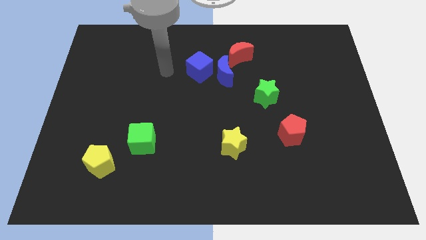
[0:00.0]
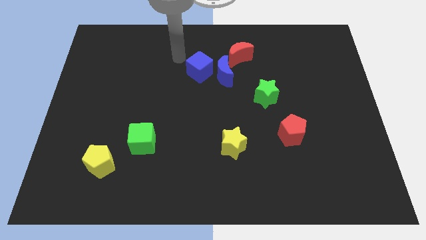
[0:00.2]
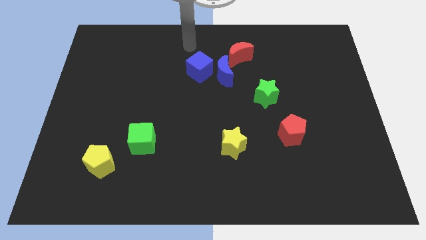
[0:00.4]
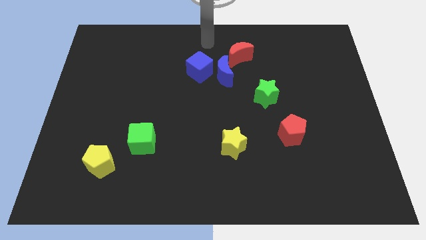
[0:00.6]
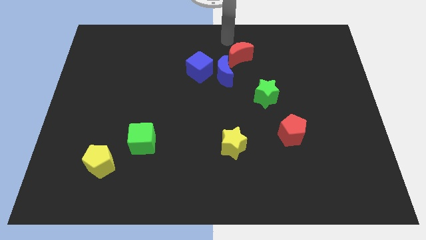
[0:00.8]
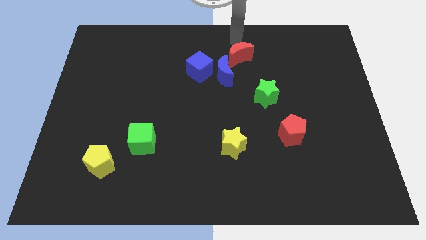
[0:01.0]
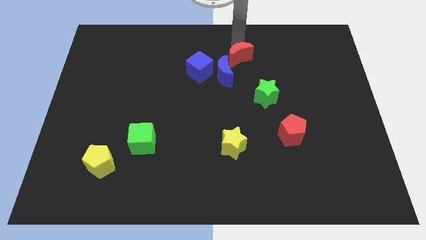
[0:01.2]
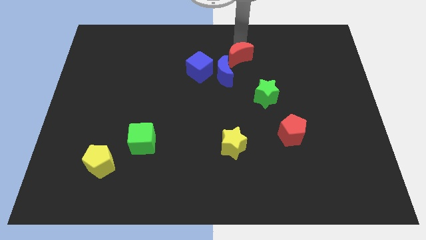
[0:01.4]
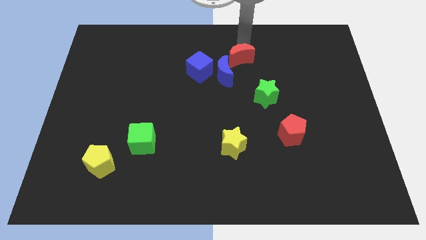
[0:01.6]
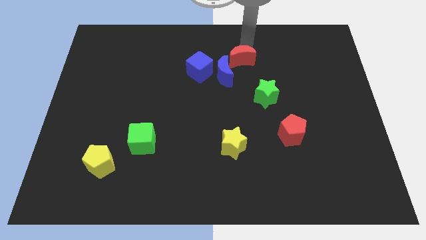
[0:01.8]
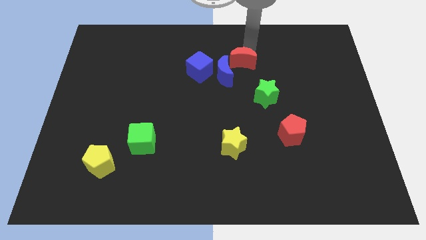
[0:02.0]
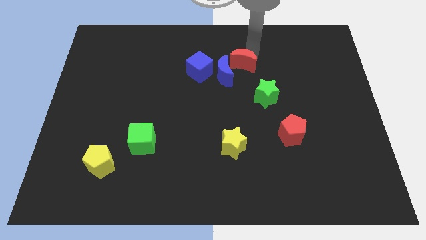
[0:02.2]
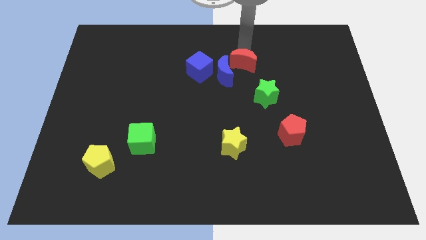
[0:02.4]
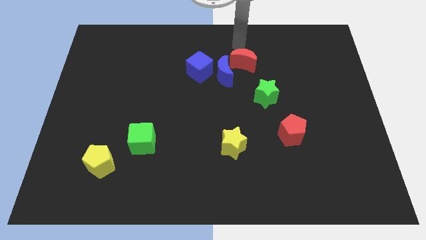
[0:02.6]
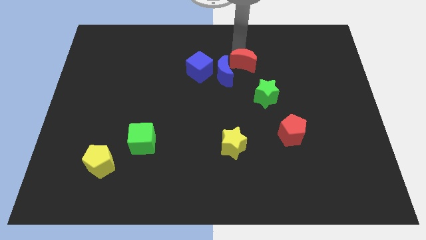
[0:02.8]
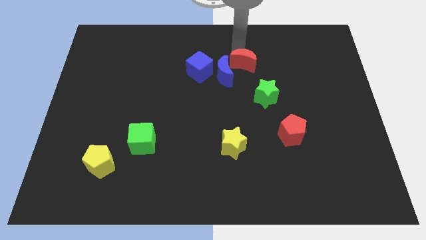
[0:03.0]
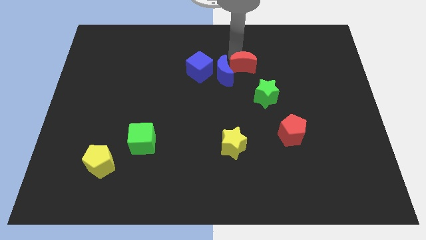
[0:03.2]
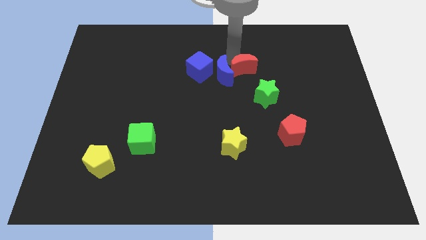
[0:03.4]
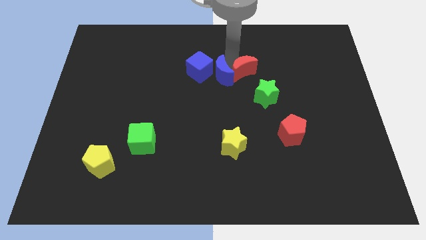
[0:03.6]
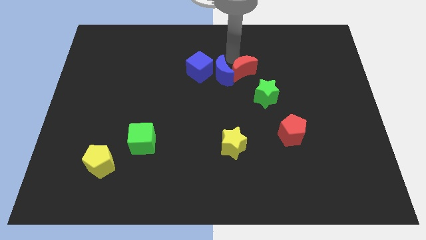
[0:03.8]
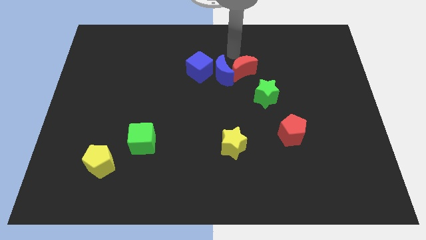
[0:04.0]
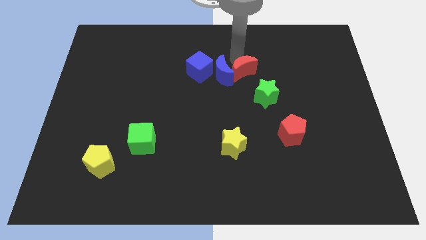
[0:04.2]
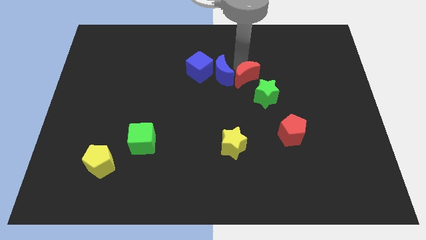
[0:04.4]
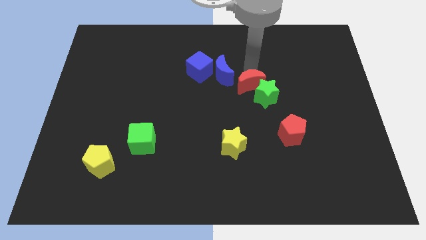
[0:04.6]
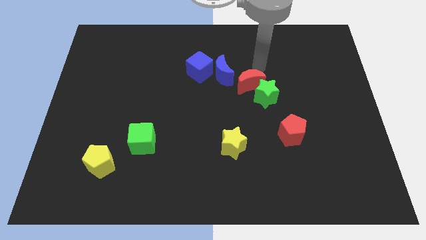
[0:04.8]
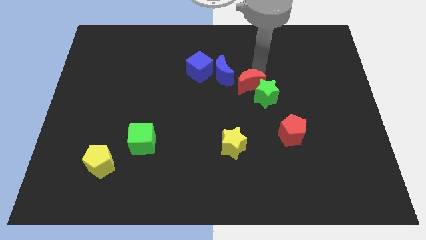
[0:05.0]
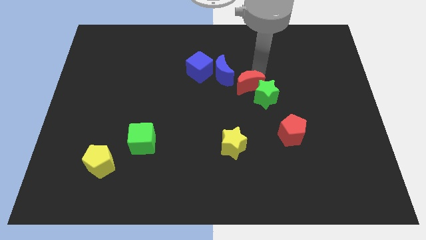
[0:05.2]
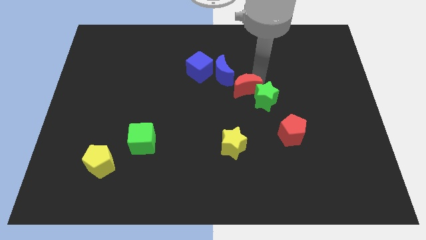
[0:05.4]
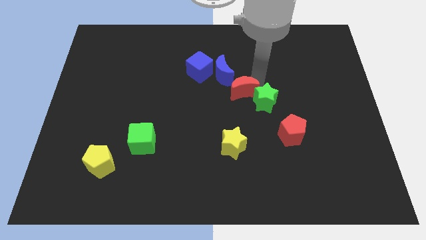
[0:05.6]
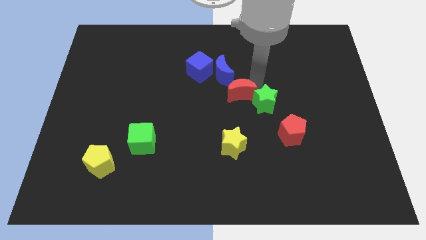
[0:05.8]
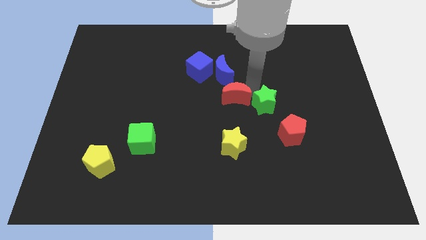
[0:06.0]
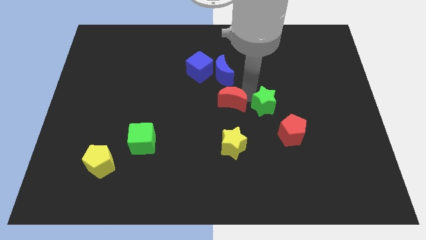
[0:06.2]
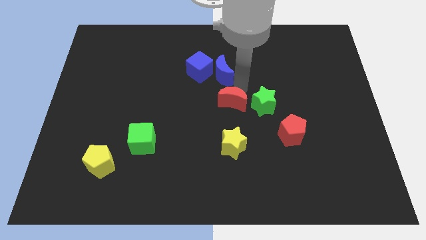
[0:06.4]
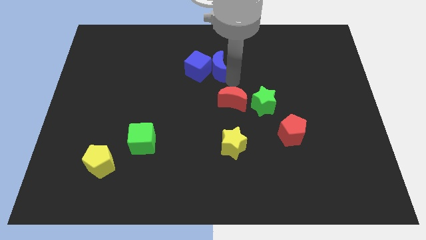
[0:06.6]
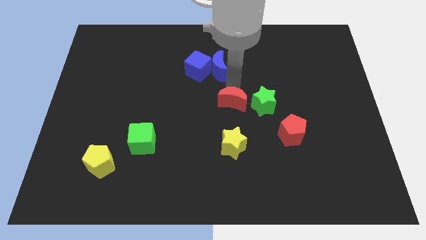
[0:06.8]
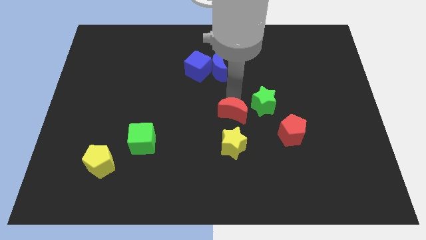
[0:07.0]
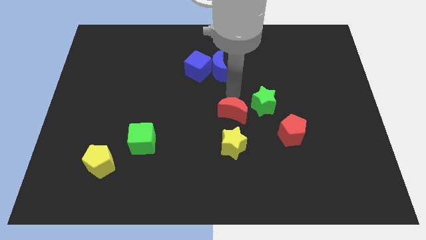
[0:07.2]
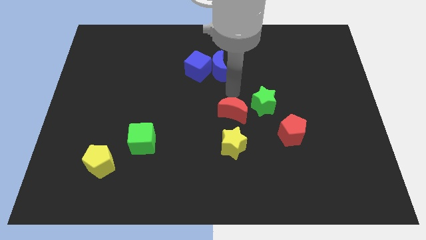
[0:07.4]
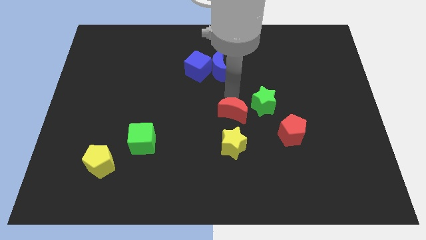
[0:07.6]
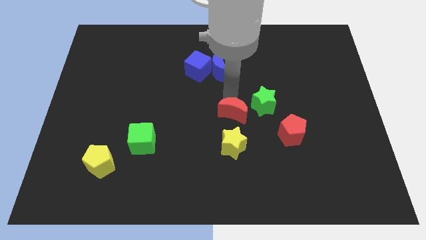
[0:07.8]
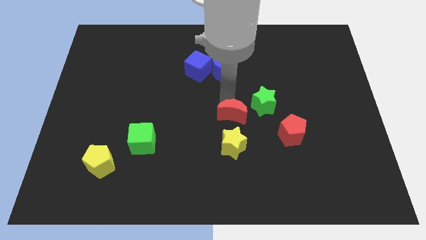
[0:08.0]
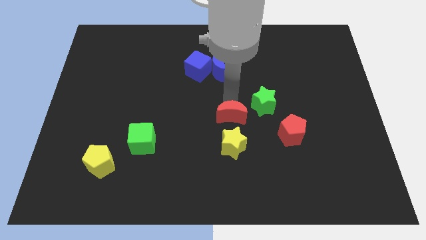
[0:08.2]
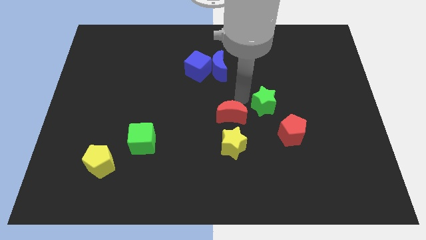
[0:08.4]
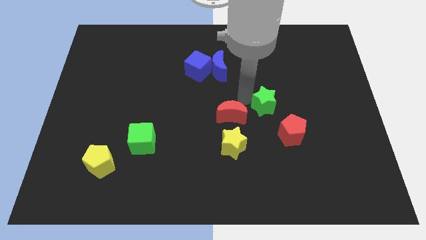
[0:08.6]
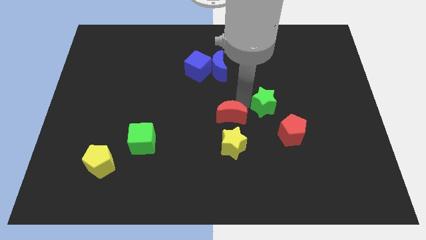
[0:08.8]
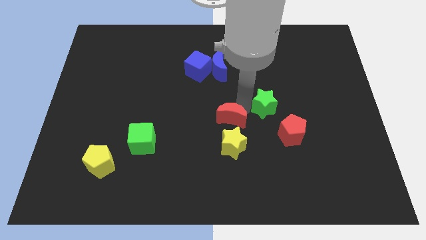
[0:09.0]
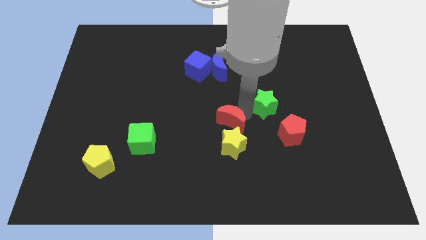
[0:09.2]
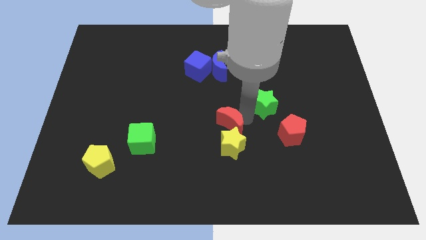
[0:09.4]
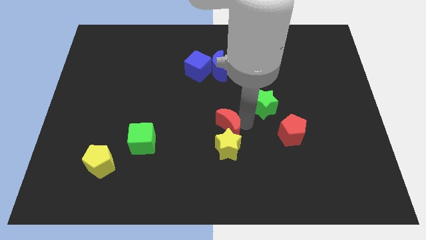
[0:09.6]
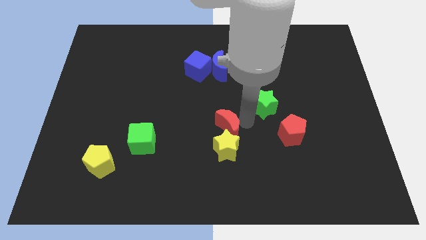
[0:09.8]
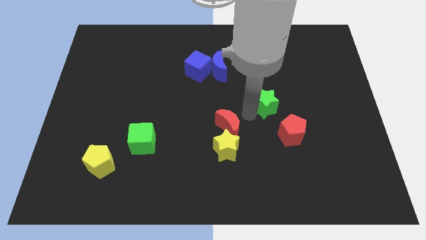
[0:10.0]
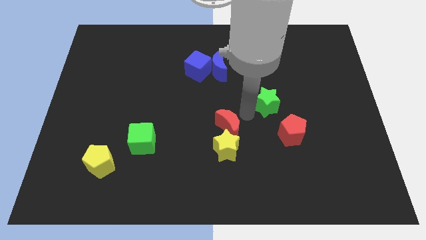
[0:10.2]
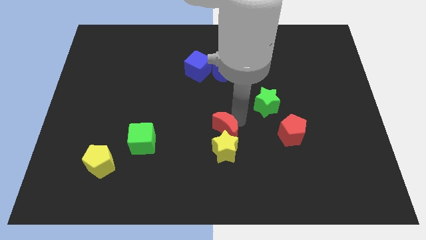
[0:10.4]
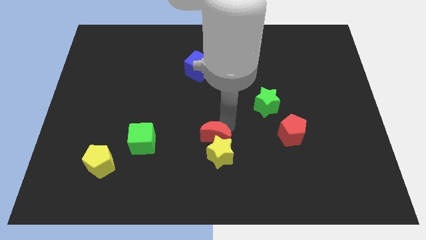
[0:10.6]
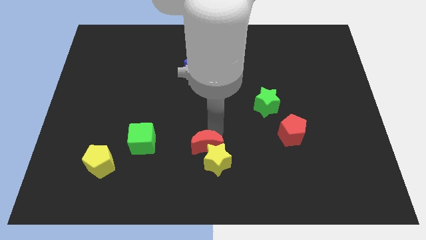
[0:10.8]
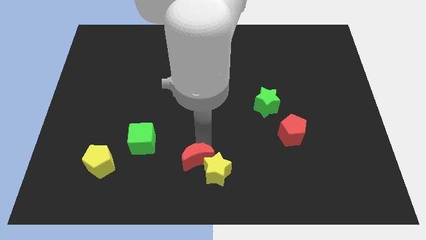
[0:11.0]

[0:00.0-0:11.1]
slide the red moon to the bottom side
